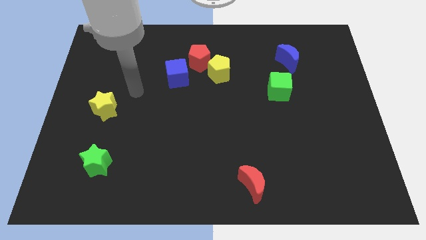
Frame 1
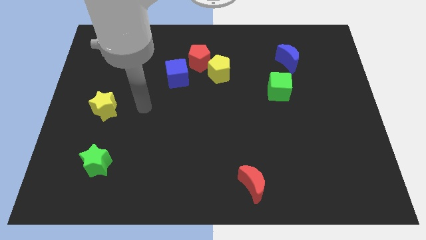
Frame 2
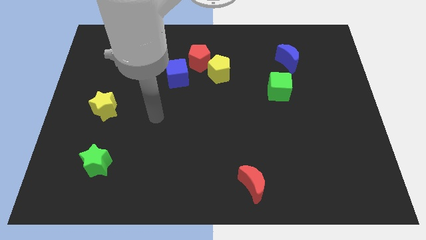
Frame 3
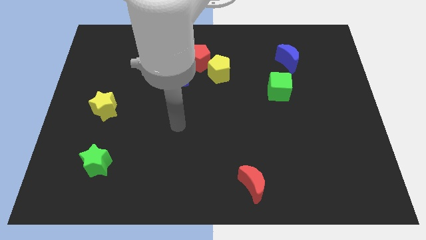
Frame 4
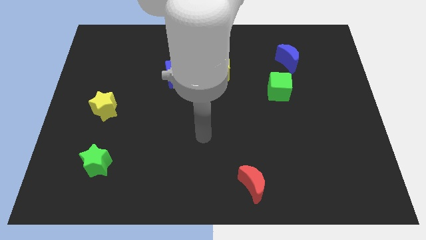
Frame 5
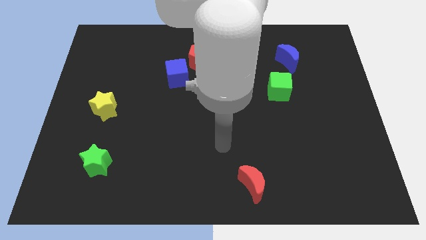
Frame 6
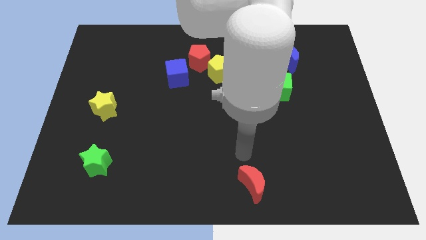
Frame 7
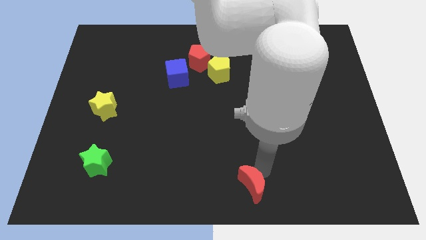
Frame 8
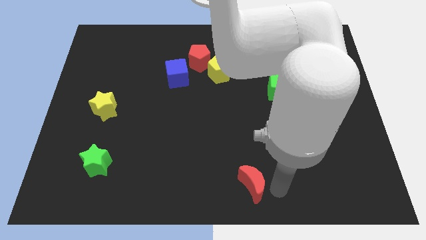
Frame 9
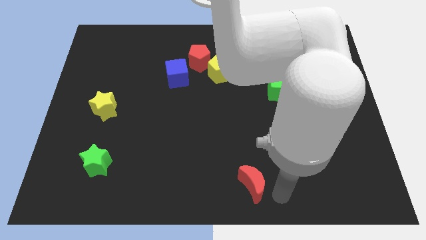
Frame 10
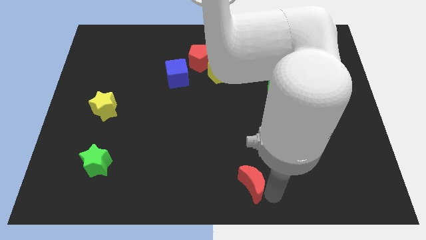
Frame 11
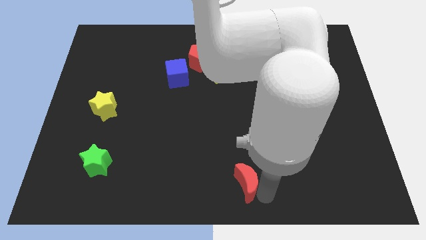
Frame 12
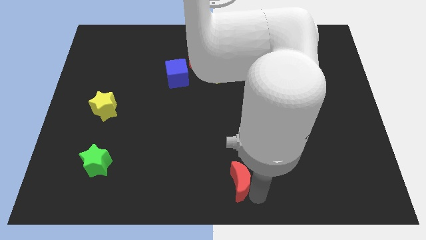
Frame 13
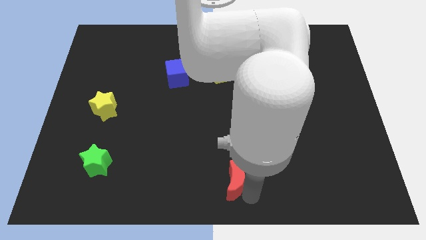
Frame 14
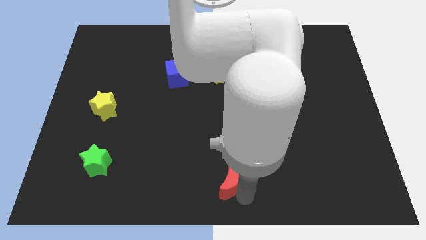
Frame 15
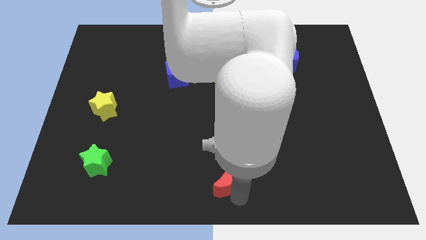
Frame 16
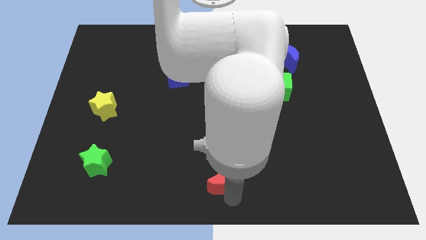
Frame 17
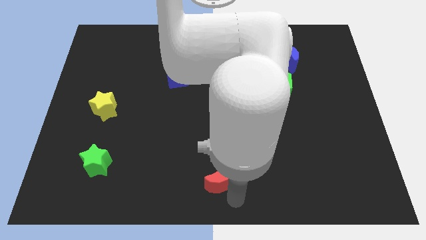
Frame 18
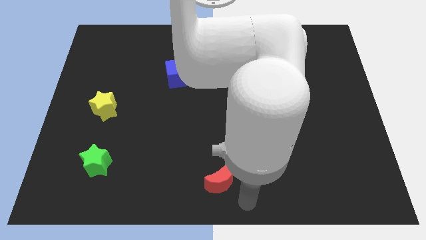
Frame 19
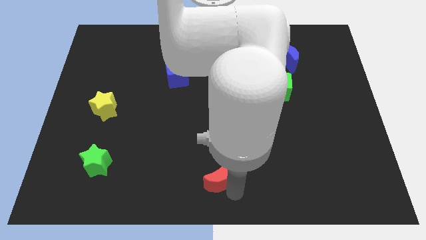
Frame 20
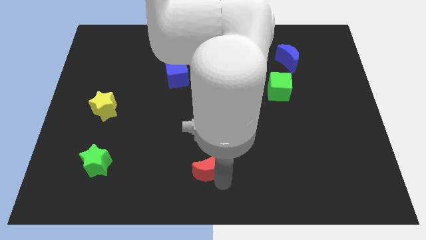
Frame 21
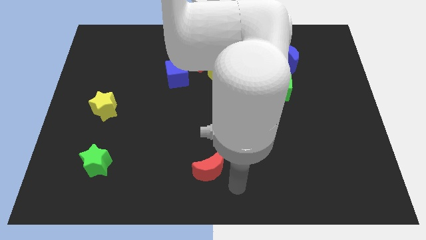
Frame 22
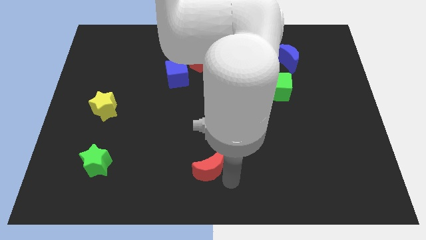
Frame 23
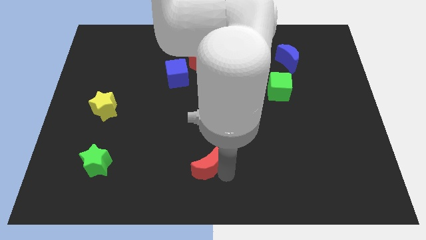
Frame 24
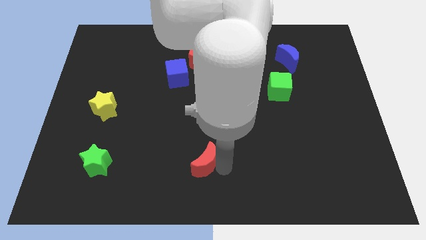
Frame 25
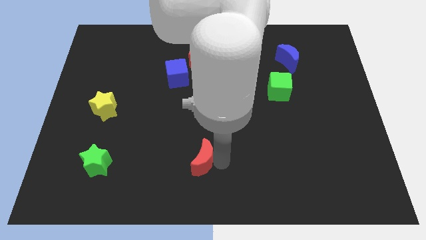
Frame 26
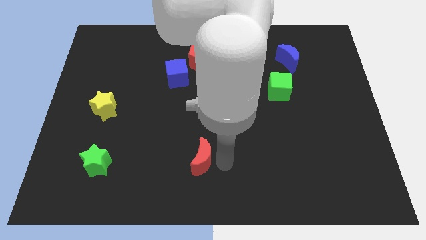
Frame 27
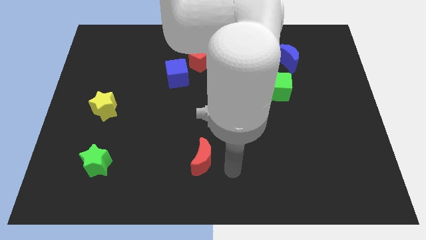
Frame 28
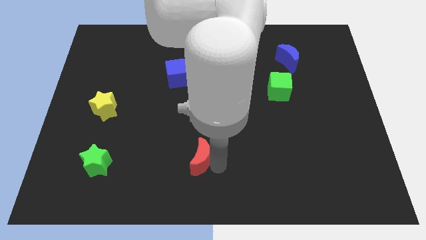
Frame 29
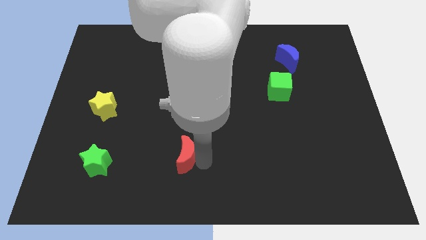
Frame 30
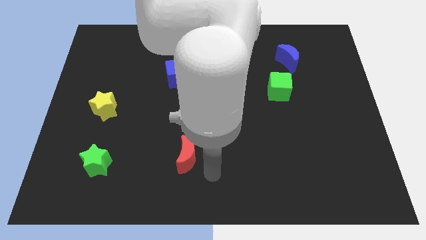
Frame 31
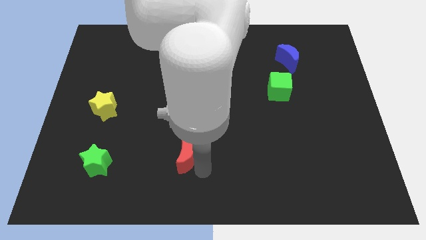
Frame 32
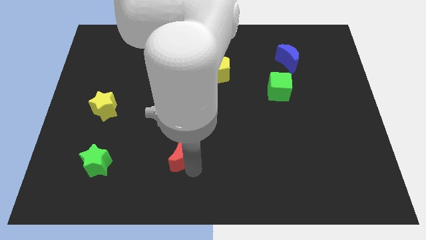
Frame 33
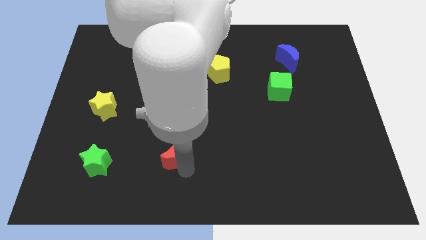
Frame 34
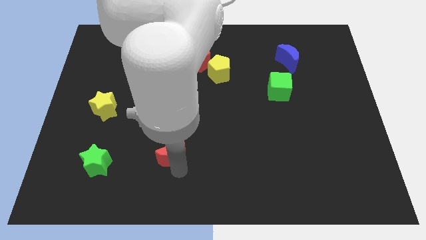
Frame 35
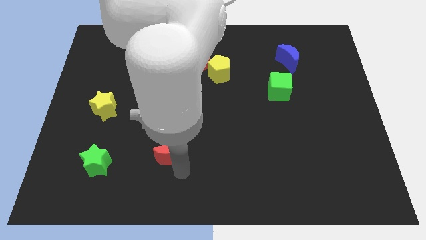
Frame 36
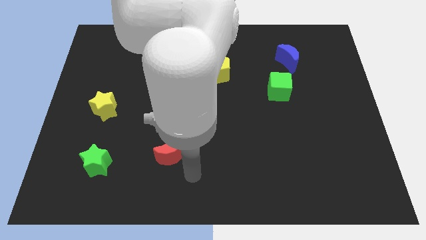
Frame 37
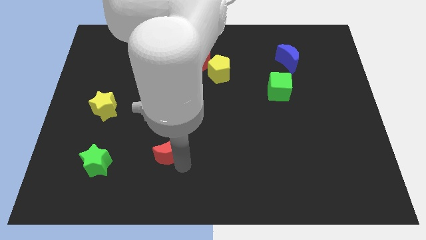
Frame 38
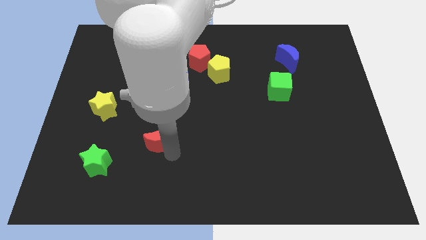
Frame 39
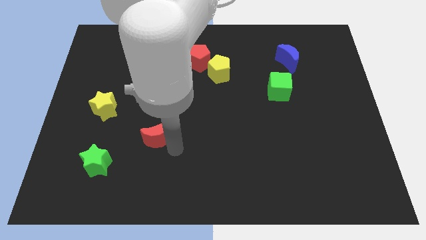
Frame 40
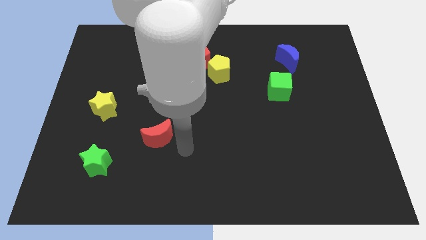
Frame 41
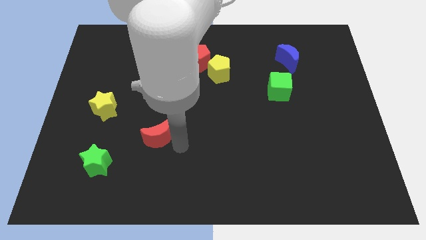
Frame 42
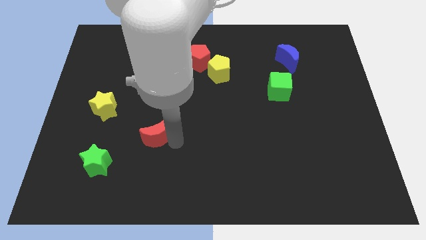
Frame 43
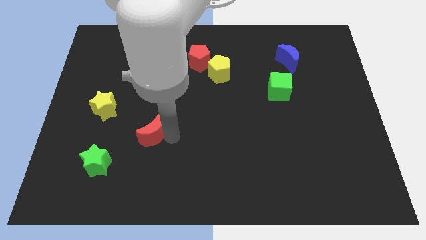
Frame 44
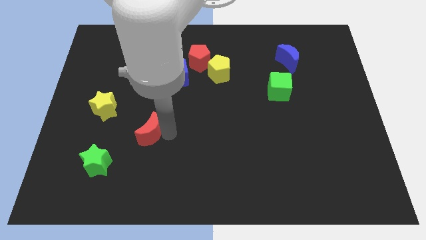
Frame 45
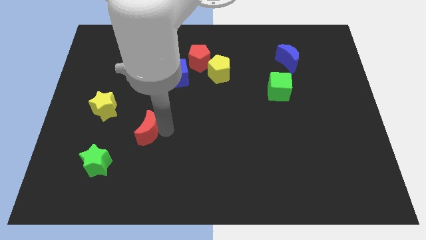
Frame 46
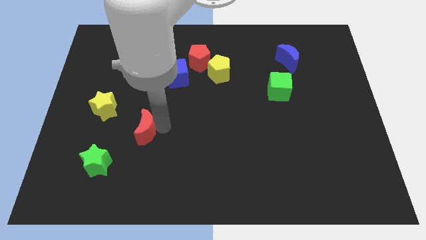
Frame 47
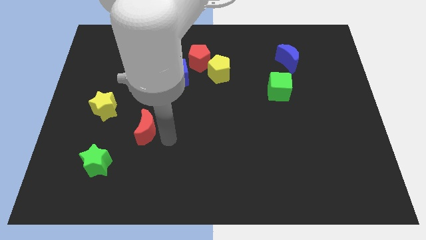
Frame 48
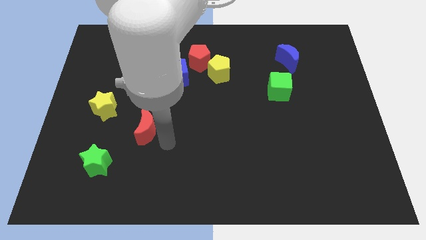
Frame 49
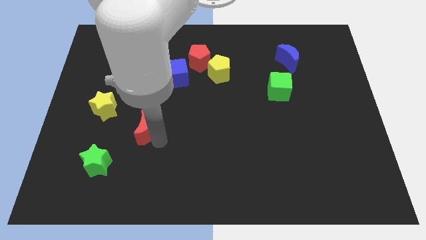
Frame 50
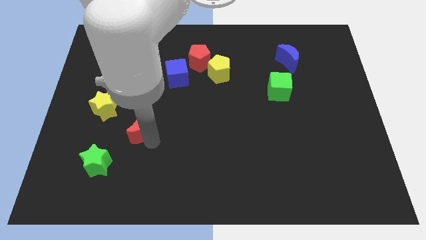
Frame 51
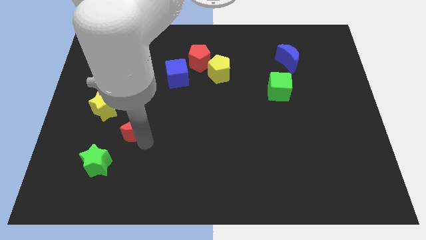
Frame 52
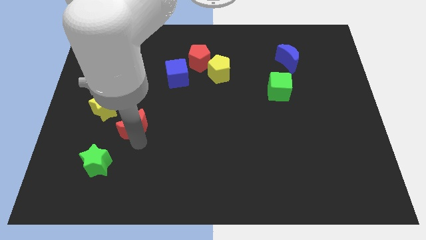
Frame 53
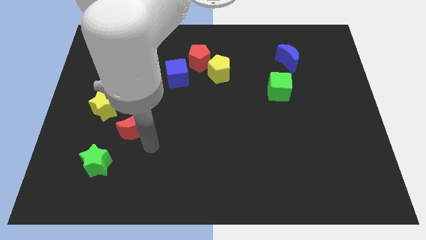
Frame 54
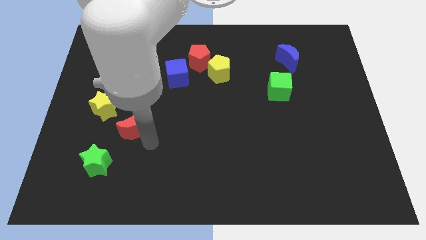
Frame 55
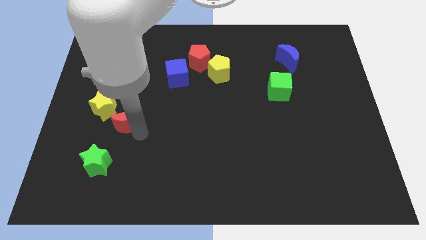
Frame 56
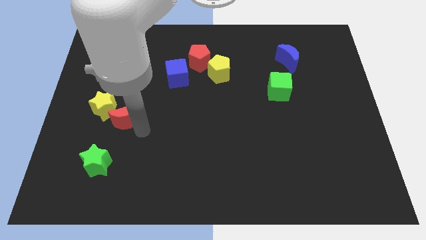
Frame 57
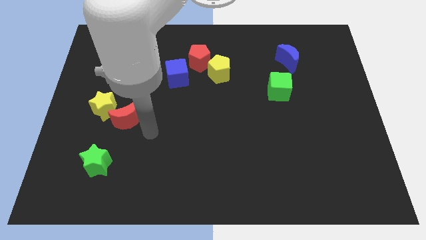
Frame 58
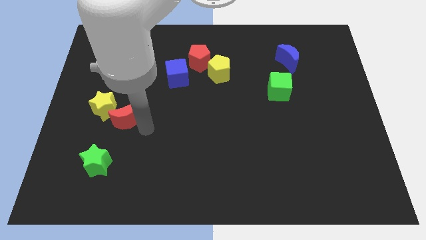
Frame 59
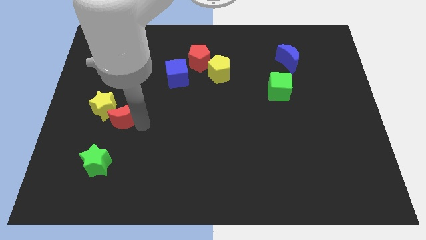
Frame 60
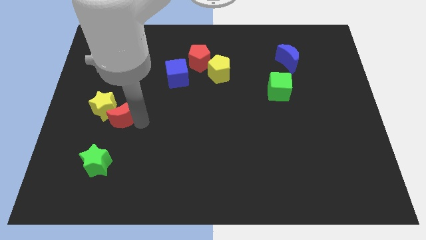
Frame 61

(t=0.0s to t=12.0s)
move the red moon next to the yellow star

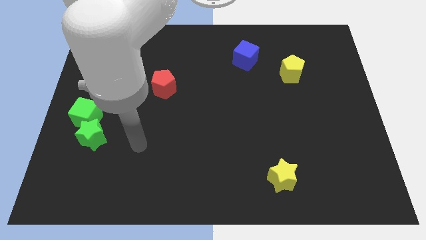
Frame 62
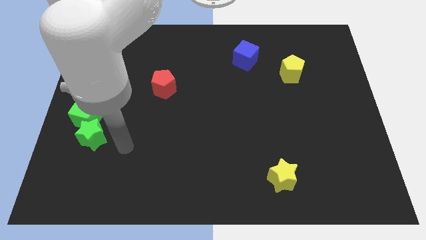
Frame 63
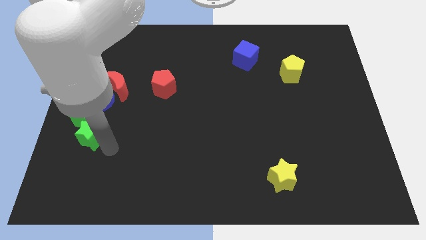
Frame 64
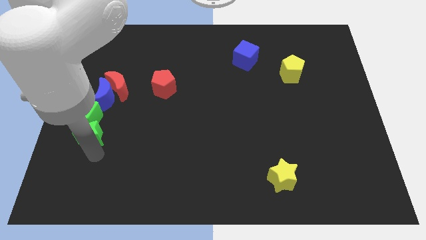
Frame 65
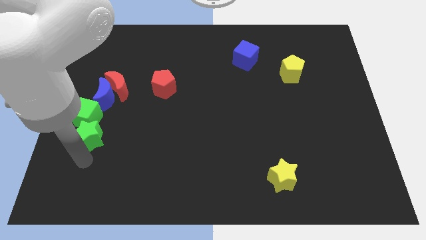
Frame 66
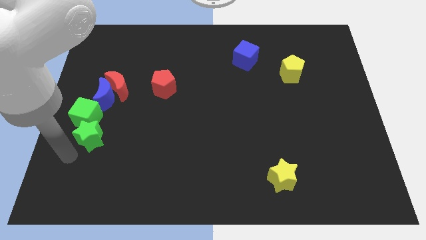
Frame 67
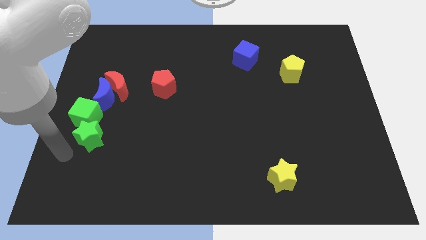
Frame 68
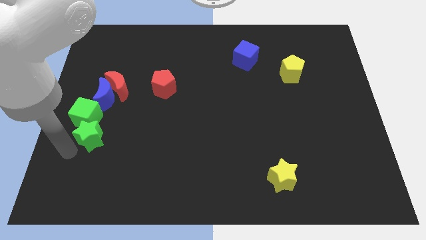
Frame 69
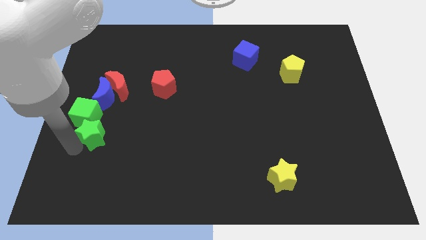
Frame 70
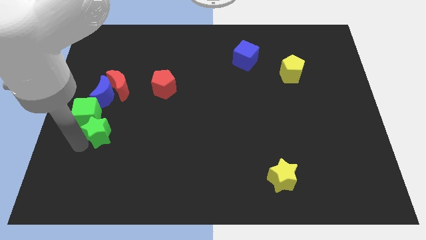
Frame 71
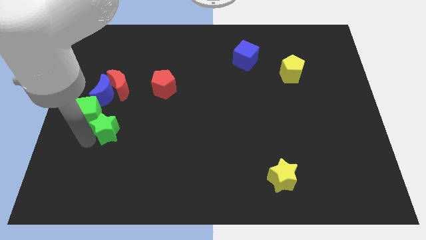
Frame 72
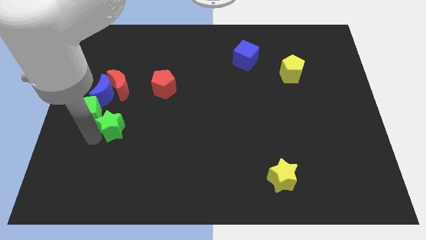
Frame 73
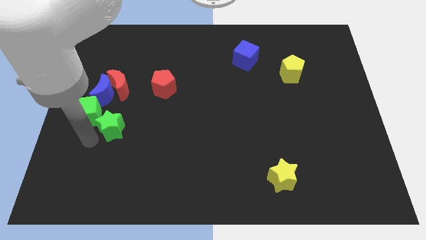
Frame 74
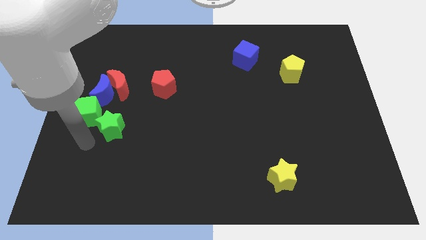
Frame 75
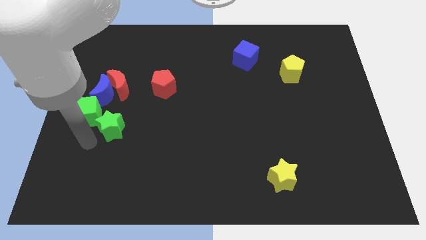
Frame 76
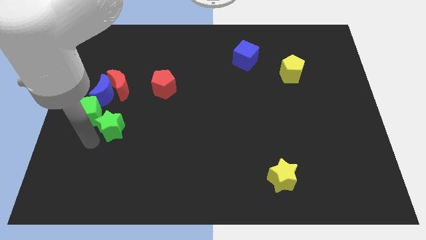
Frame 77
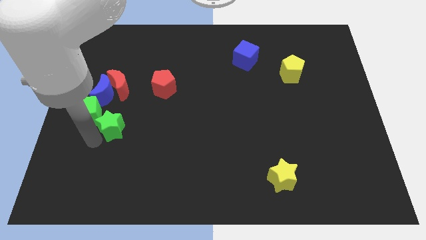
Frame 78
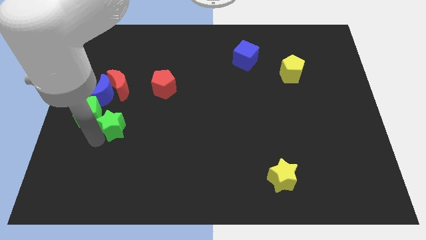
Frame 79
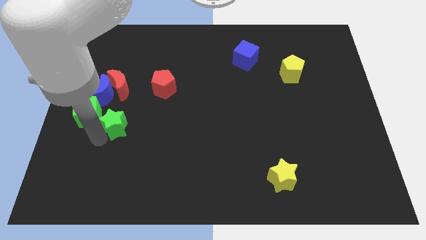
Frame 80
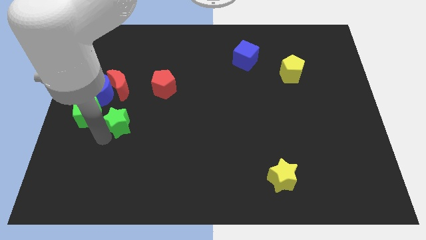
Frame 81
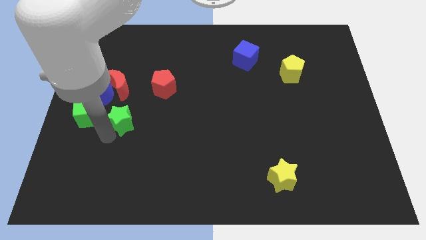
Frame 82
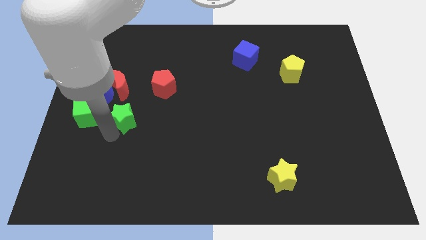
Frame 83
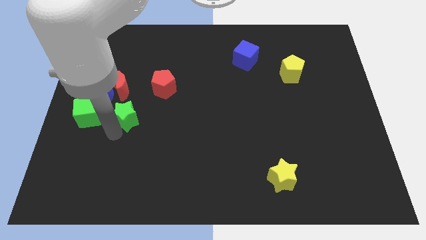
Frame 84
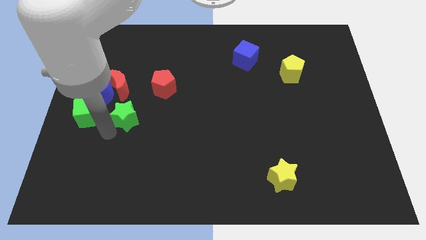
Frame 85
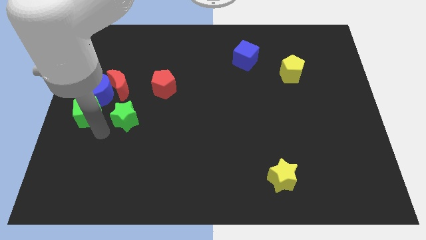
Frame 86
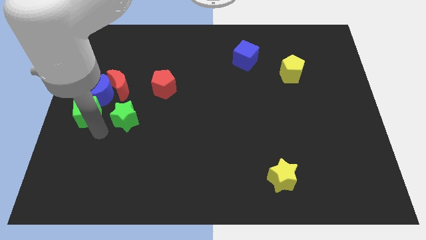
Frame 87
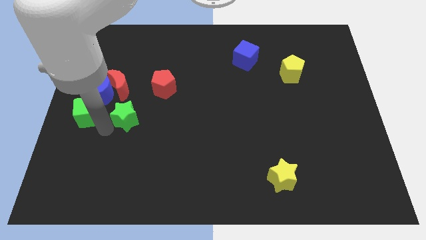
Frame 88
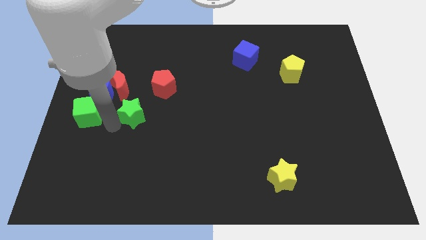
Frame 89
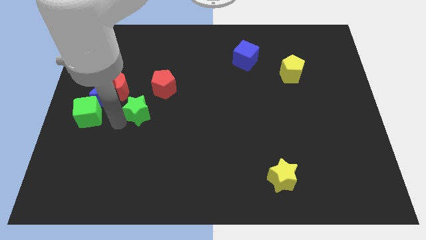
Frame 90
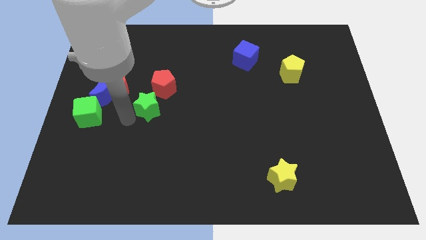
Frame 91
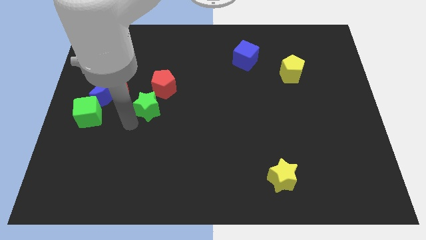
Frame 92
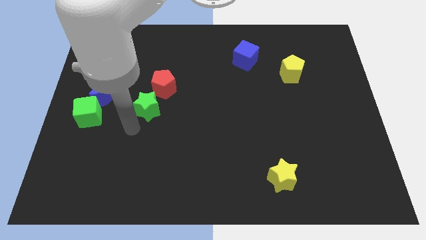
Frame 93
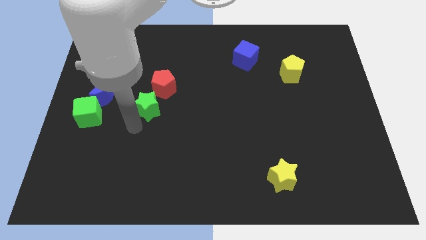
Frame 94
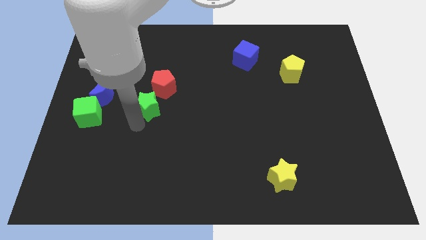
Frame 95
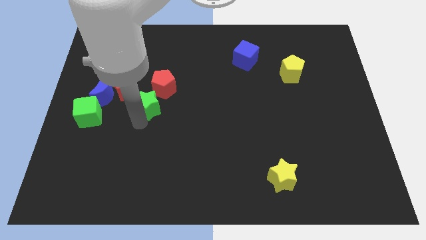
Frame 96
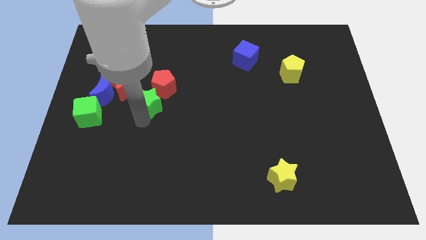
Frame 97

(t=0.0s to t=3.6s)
put the green star towards the red pentagon
